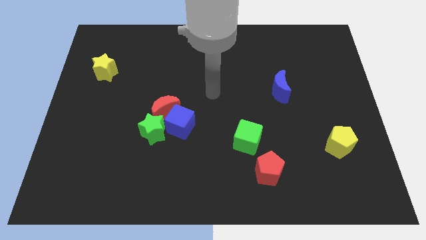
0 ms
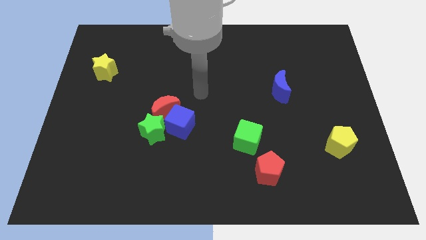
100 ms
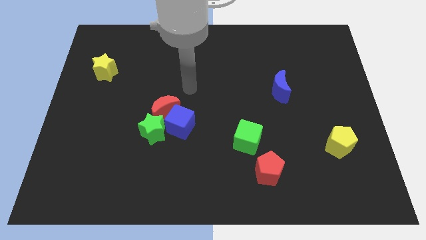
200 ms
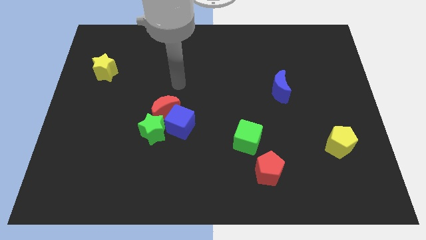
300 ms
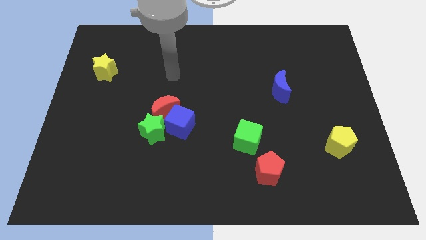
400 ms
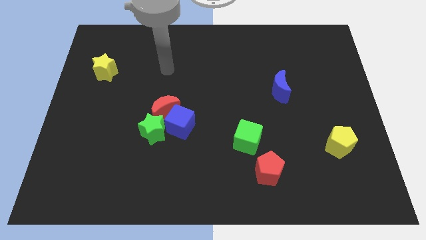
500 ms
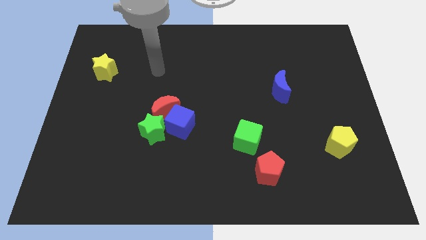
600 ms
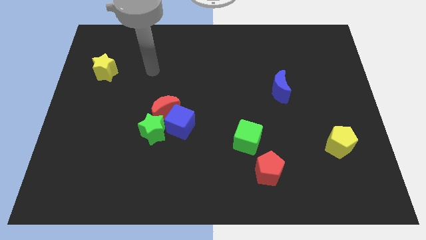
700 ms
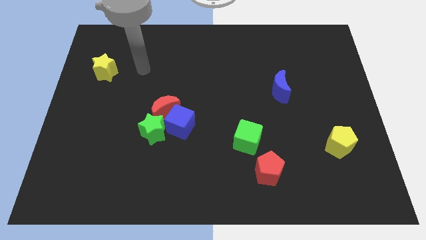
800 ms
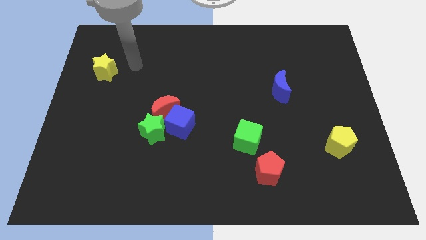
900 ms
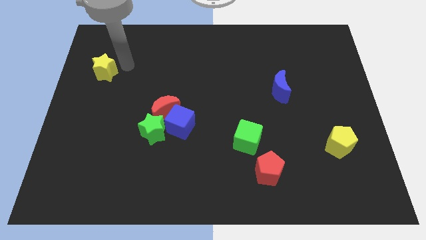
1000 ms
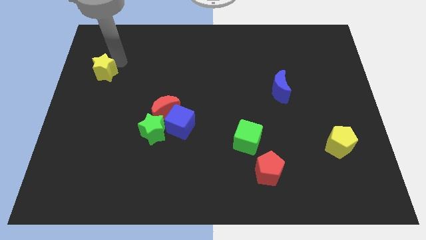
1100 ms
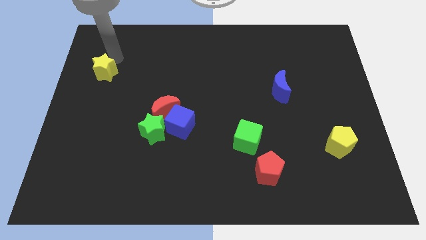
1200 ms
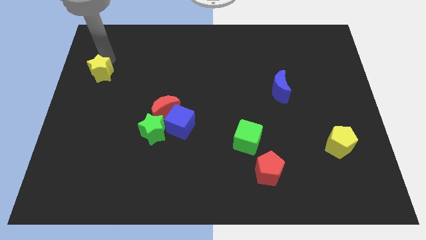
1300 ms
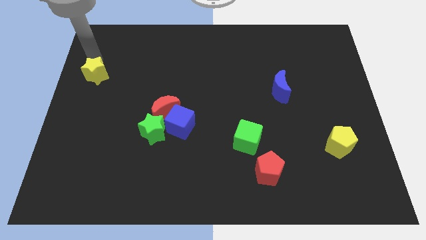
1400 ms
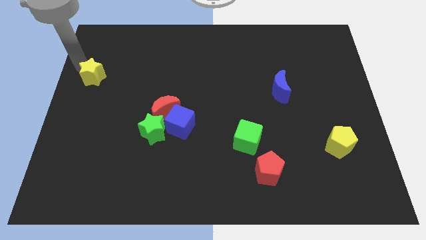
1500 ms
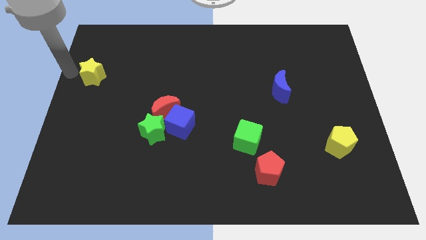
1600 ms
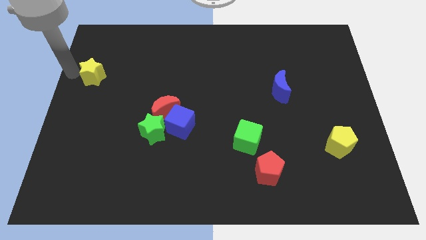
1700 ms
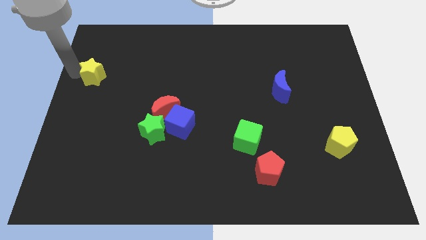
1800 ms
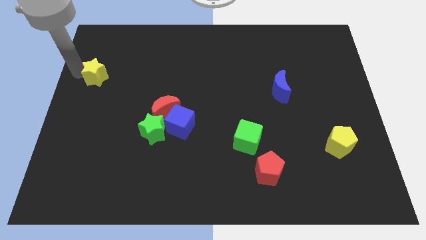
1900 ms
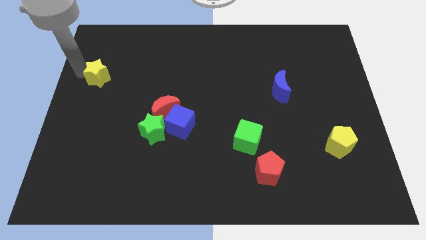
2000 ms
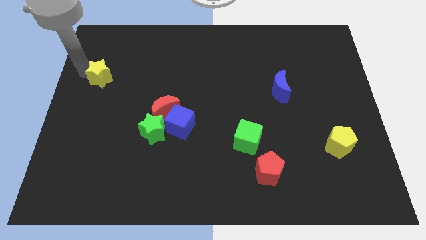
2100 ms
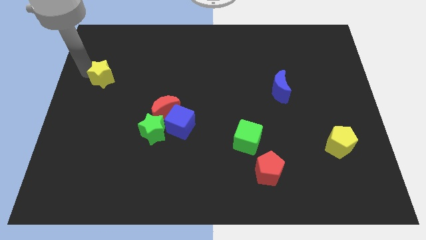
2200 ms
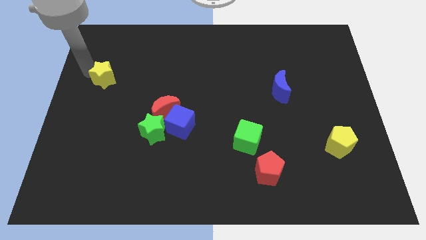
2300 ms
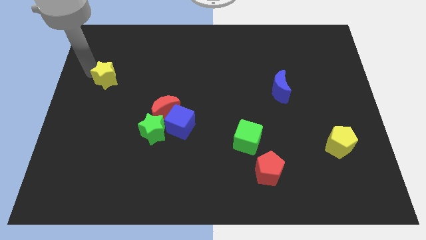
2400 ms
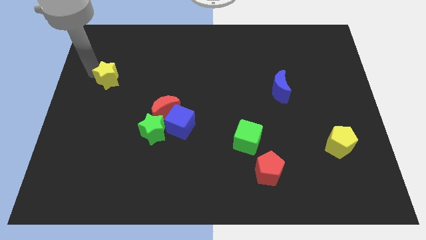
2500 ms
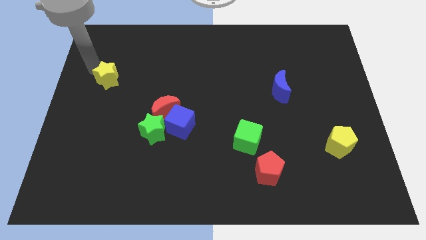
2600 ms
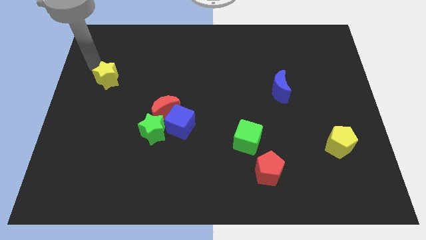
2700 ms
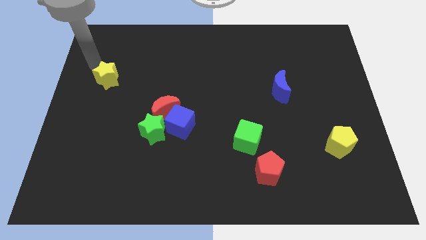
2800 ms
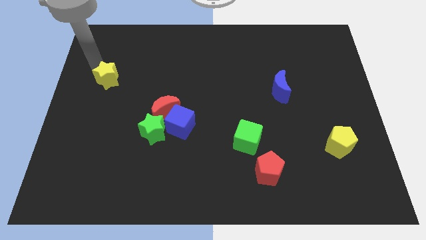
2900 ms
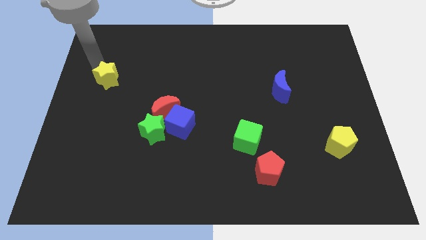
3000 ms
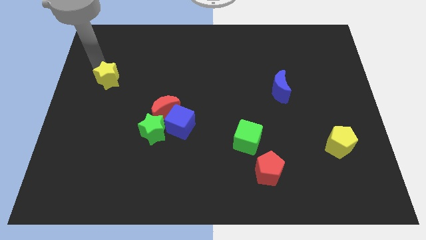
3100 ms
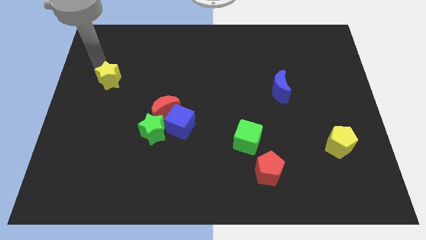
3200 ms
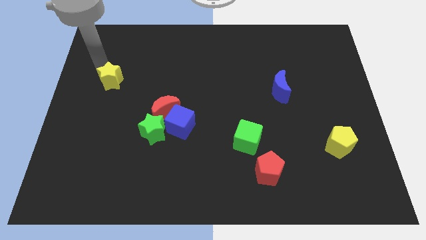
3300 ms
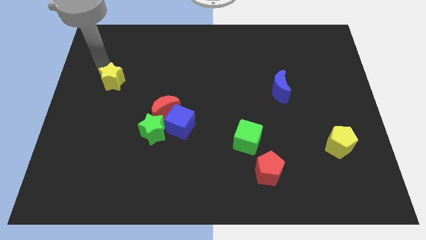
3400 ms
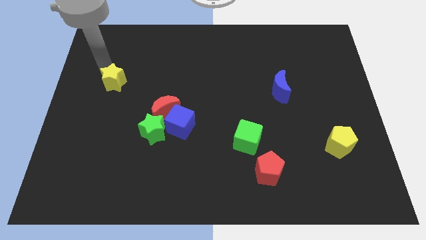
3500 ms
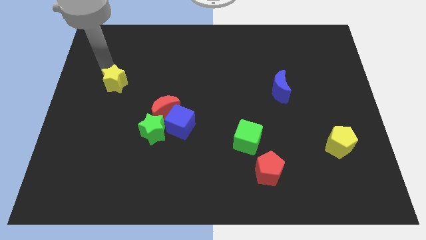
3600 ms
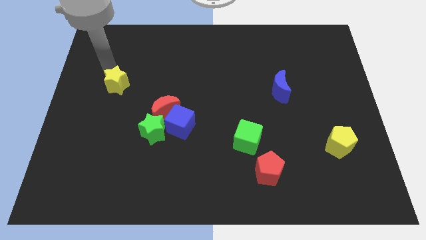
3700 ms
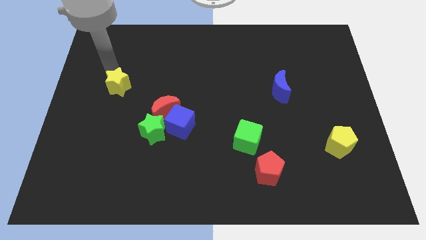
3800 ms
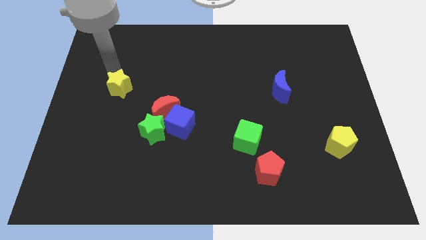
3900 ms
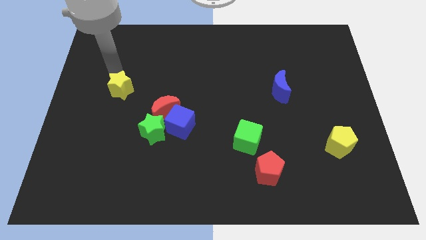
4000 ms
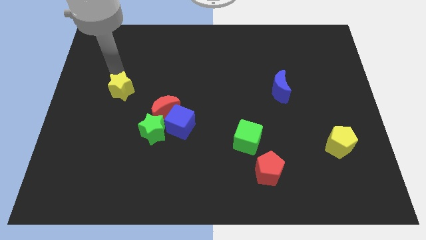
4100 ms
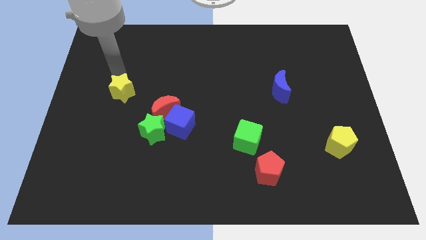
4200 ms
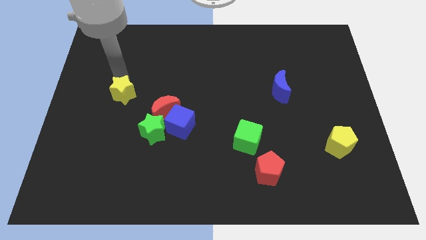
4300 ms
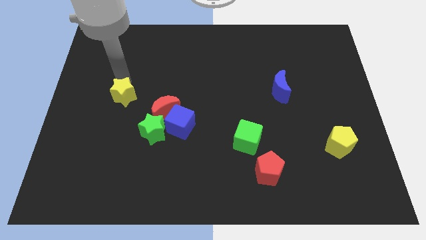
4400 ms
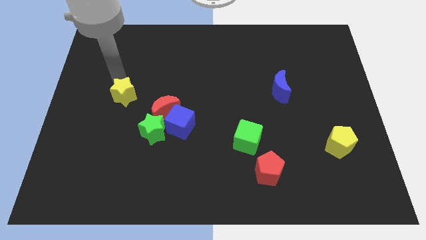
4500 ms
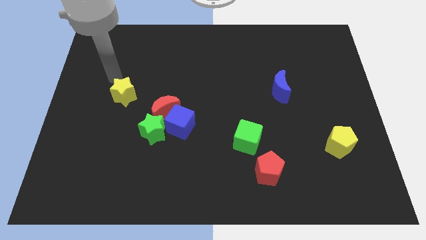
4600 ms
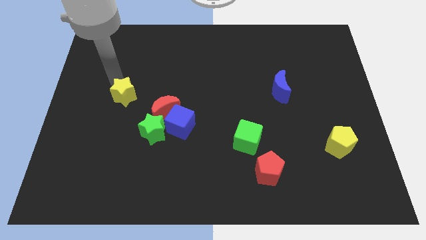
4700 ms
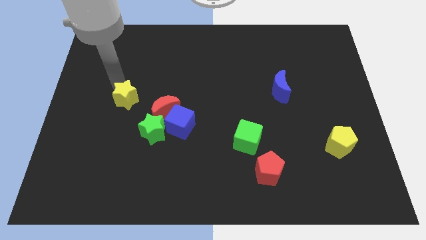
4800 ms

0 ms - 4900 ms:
slide the yellow star diagonally up and to the left of the green star

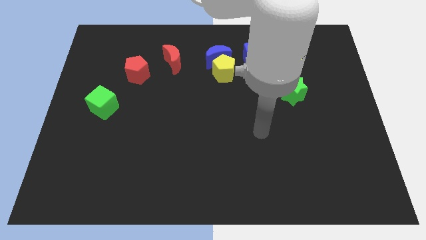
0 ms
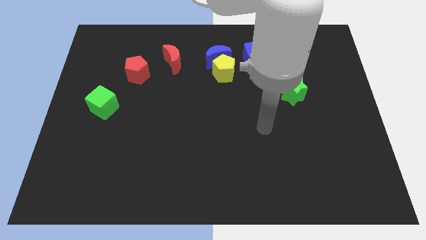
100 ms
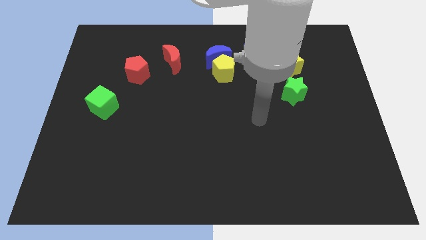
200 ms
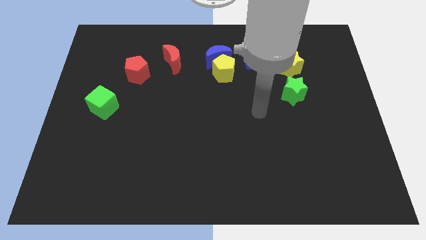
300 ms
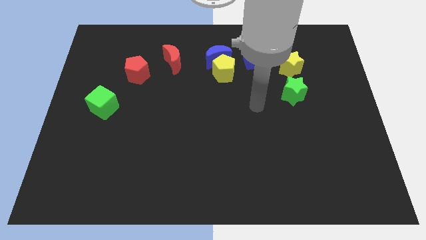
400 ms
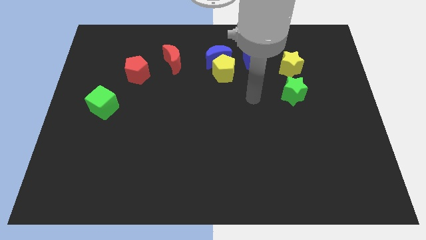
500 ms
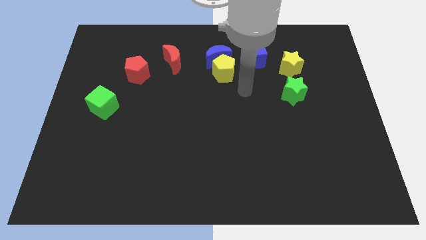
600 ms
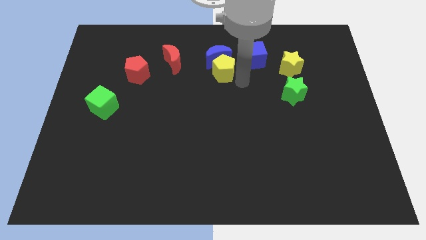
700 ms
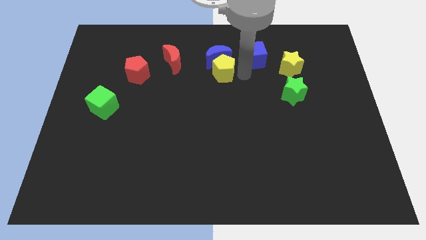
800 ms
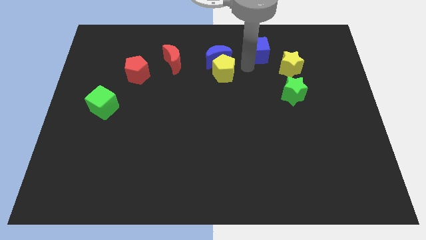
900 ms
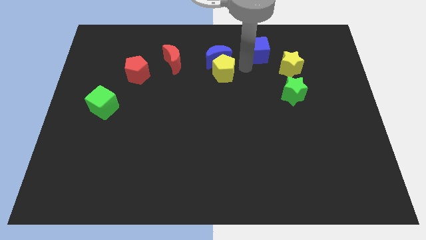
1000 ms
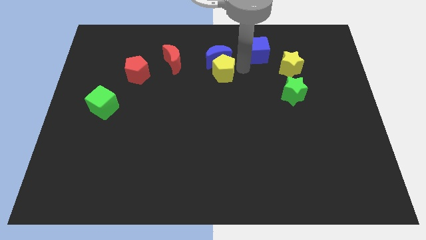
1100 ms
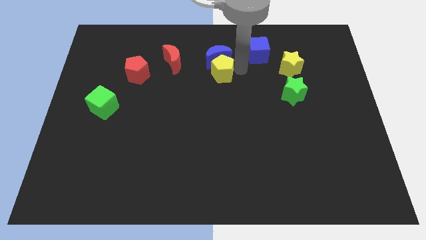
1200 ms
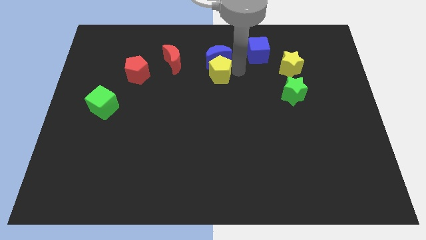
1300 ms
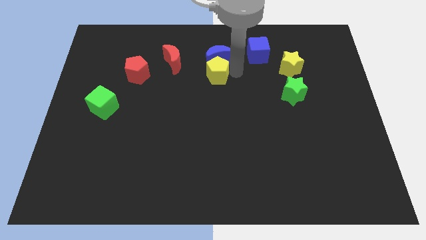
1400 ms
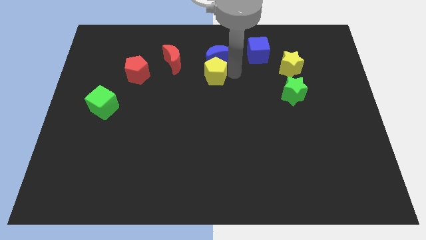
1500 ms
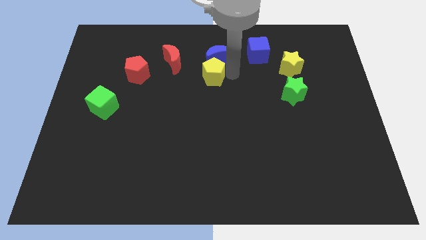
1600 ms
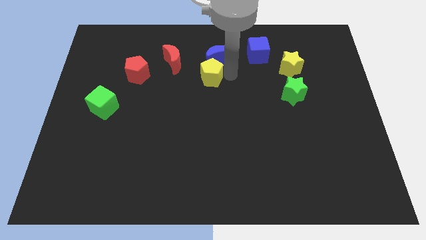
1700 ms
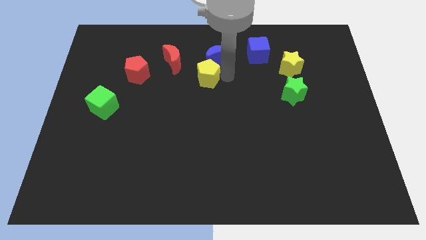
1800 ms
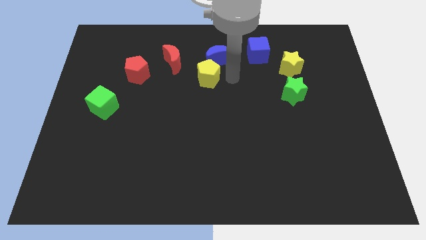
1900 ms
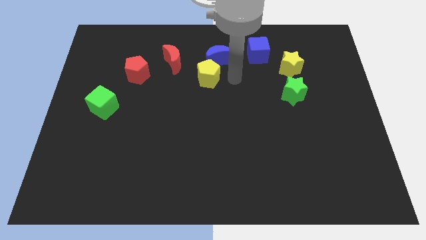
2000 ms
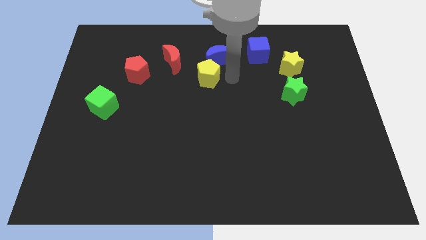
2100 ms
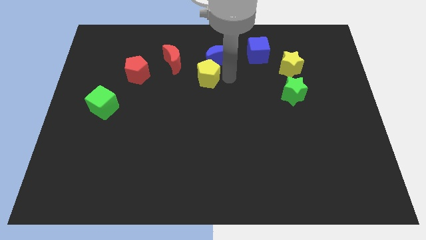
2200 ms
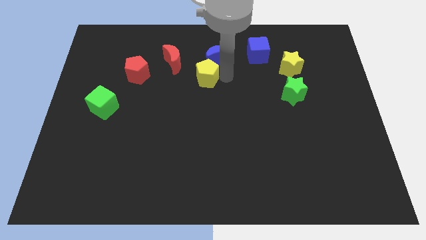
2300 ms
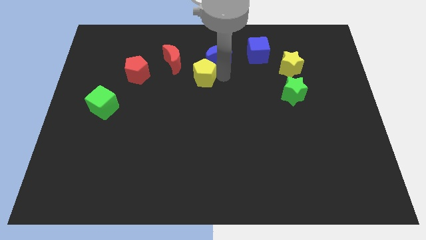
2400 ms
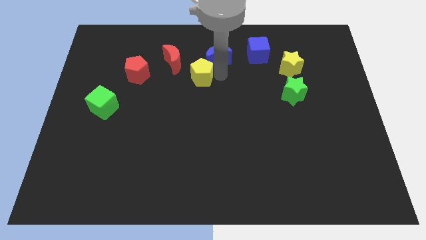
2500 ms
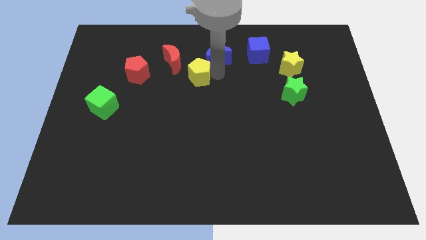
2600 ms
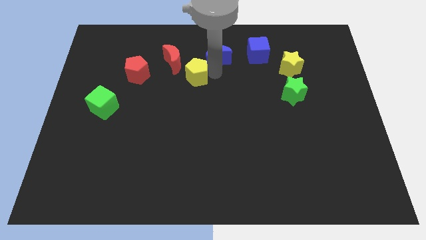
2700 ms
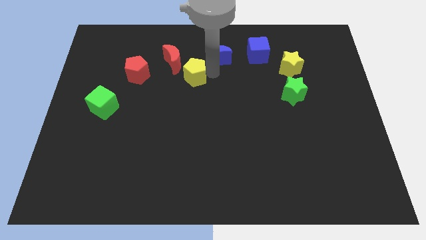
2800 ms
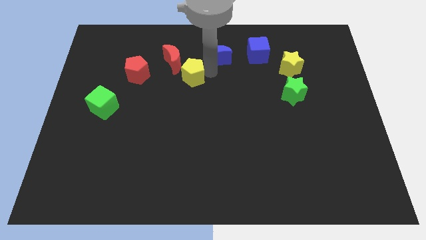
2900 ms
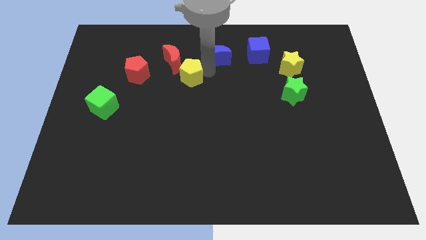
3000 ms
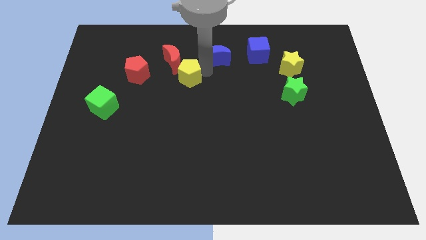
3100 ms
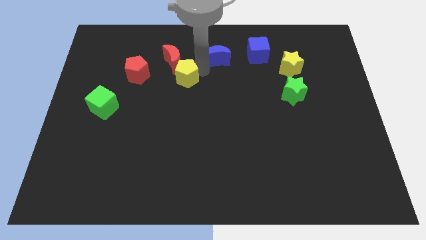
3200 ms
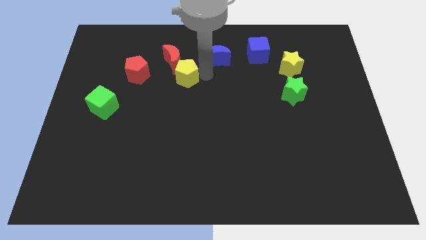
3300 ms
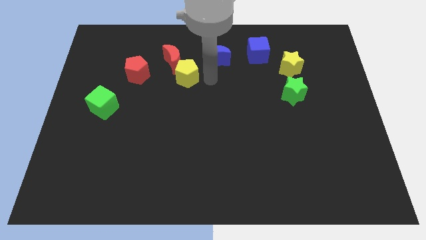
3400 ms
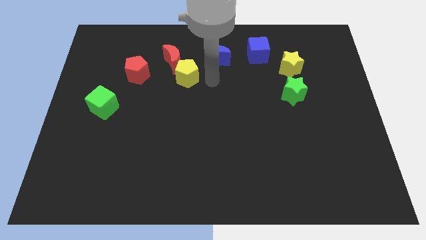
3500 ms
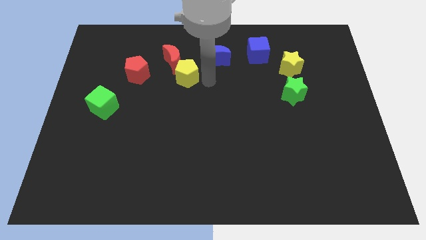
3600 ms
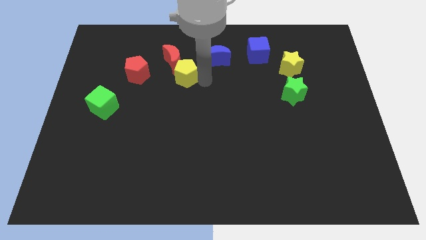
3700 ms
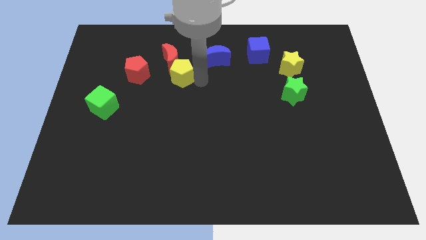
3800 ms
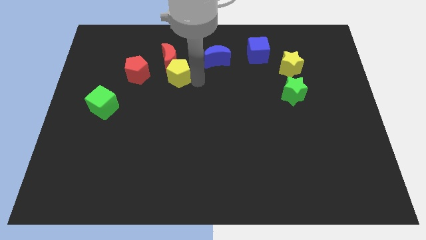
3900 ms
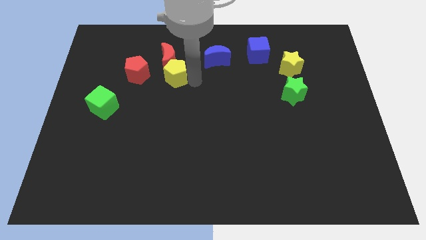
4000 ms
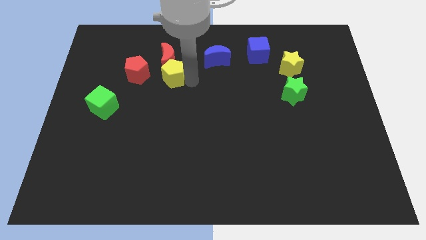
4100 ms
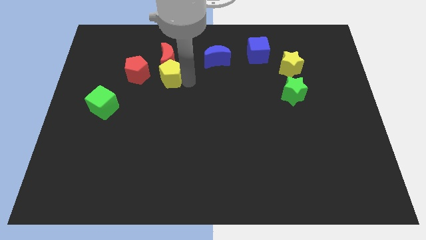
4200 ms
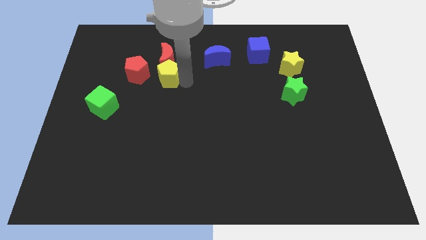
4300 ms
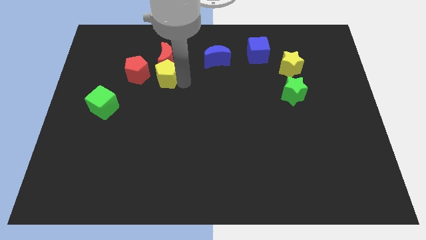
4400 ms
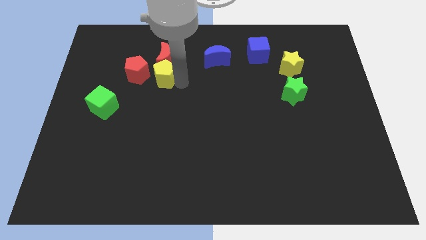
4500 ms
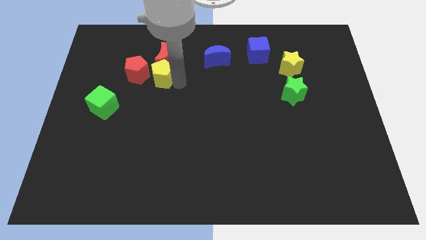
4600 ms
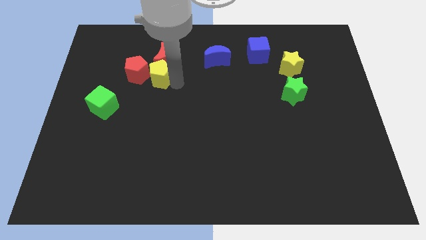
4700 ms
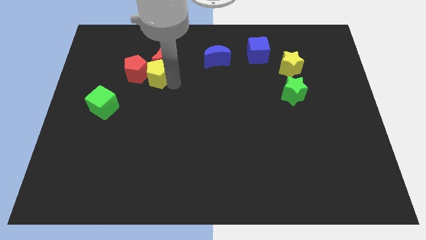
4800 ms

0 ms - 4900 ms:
move the yellow pentagon to the top right side of the red pentagon
